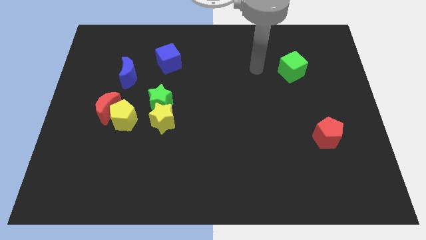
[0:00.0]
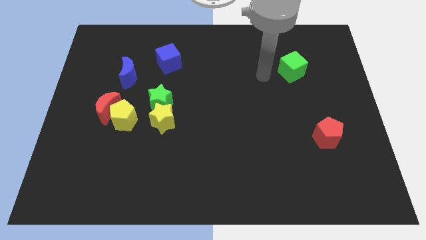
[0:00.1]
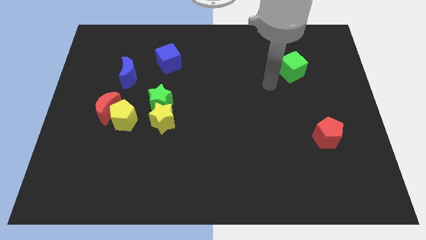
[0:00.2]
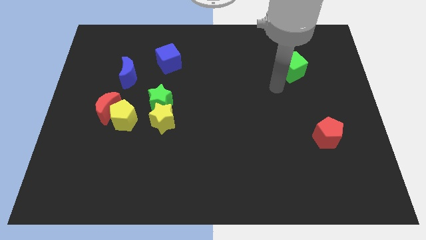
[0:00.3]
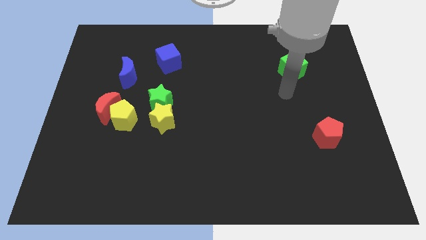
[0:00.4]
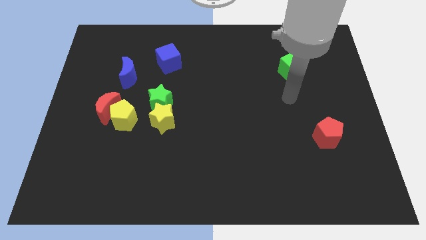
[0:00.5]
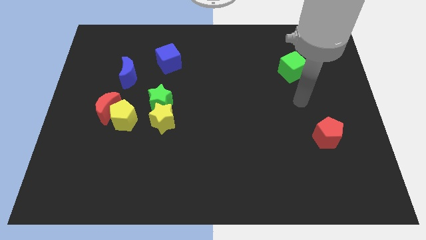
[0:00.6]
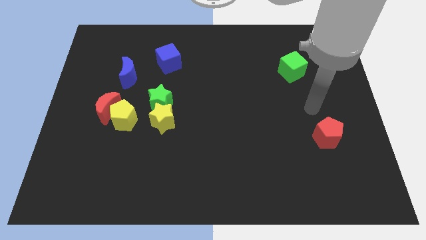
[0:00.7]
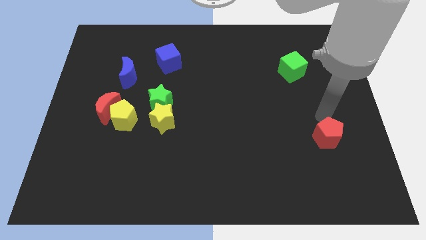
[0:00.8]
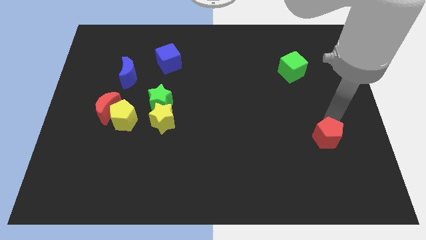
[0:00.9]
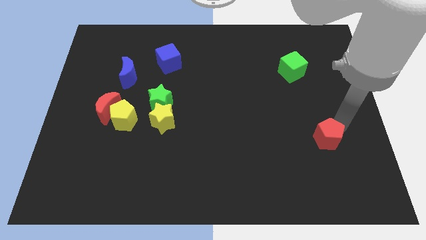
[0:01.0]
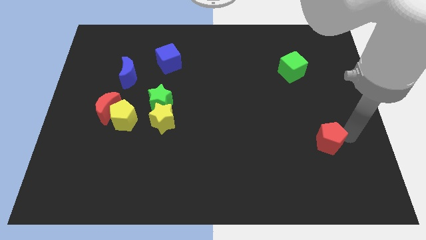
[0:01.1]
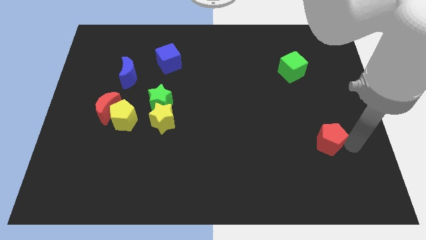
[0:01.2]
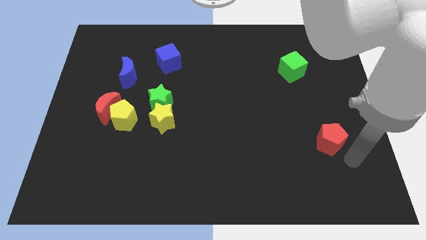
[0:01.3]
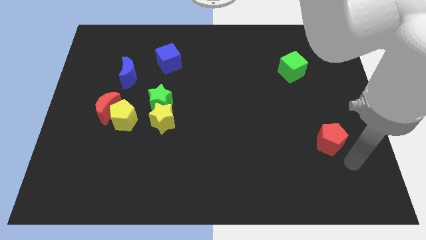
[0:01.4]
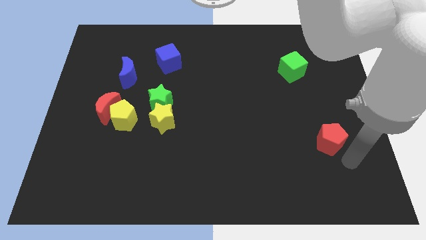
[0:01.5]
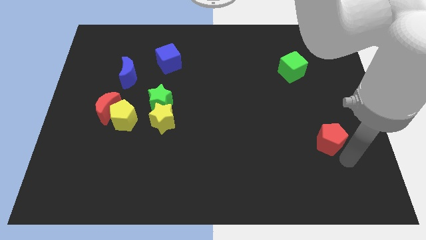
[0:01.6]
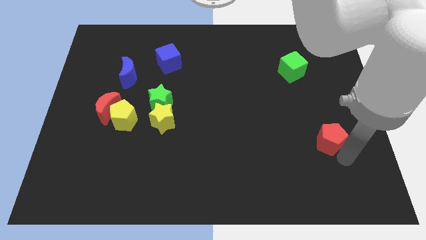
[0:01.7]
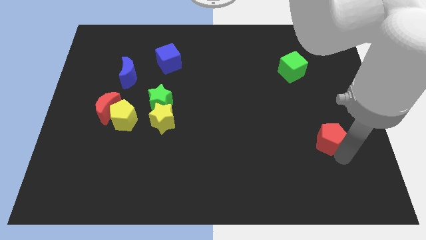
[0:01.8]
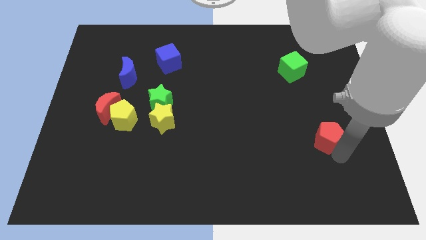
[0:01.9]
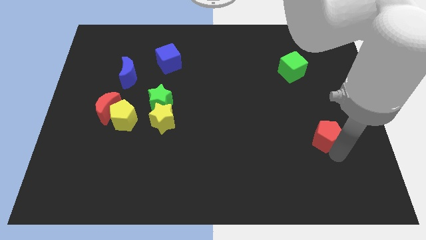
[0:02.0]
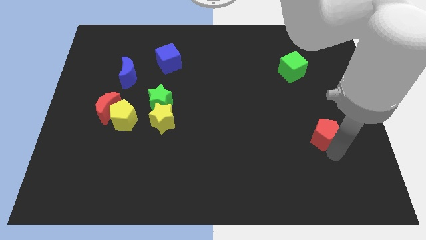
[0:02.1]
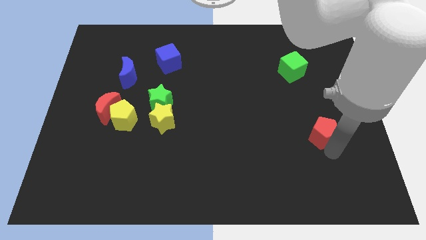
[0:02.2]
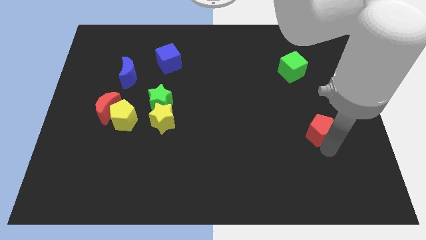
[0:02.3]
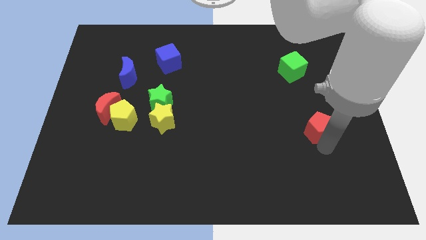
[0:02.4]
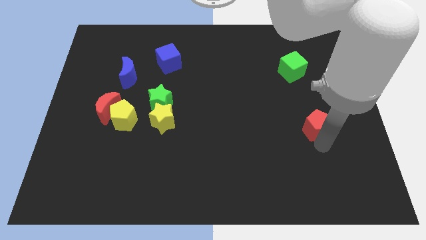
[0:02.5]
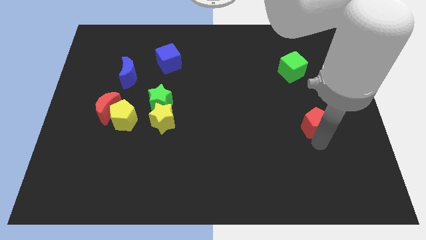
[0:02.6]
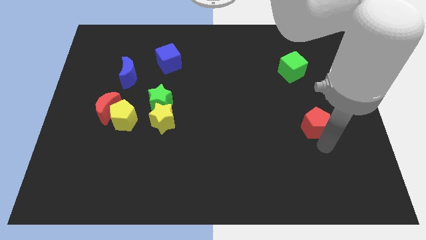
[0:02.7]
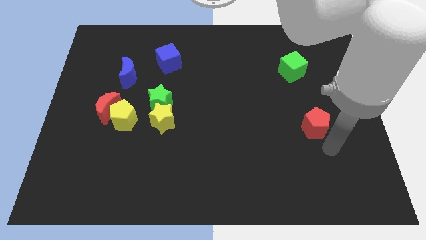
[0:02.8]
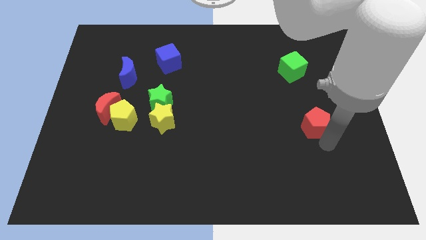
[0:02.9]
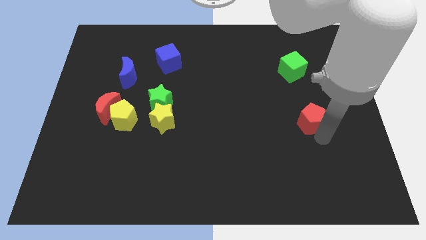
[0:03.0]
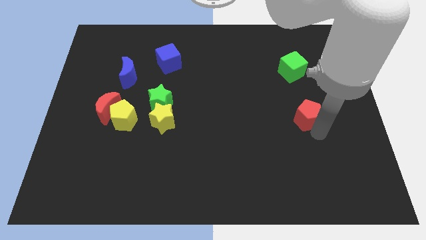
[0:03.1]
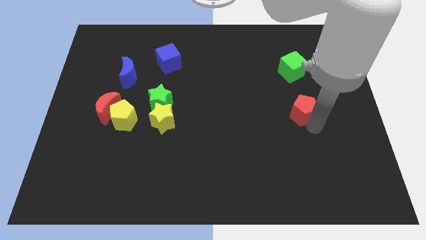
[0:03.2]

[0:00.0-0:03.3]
push the red pentagon a bit upwards and left diagonally

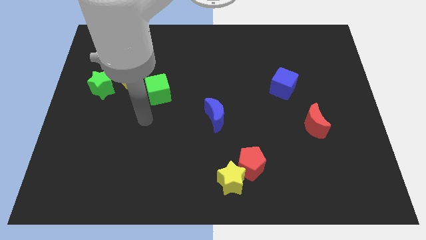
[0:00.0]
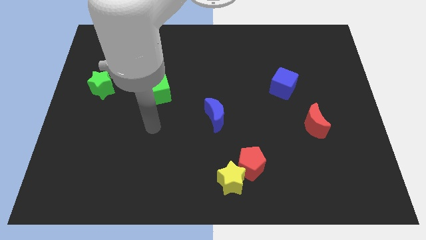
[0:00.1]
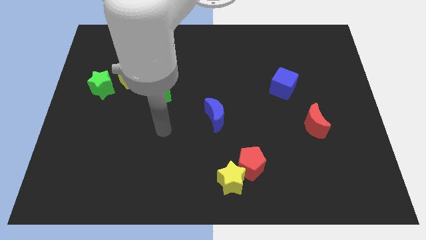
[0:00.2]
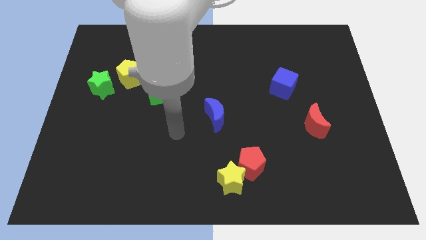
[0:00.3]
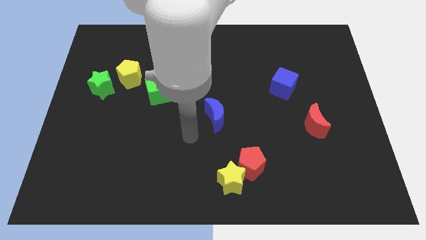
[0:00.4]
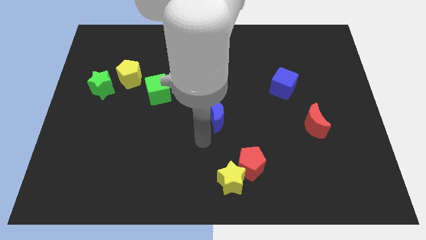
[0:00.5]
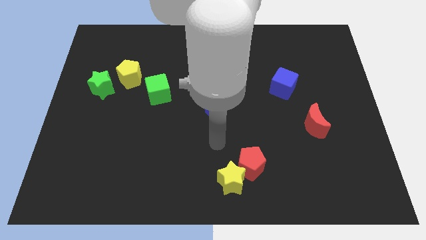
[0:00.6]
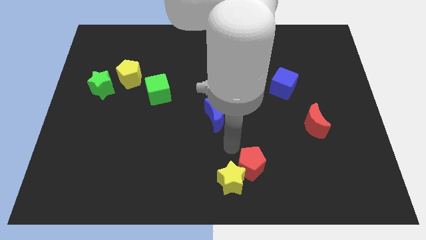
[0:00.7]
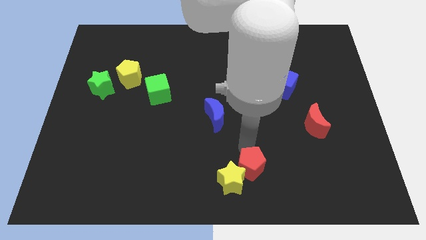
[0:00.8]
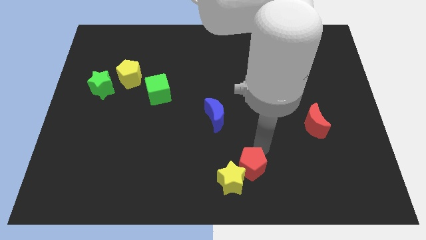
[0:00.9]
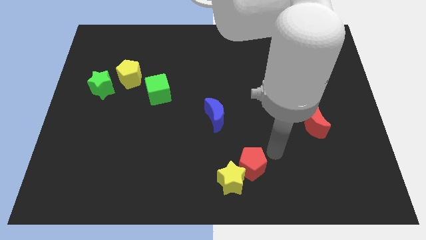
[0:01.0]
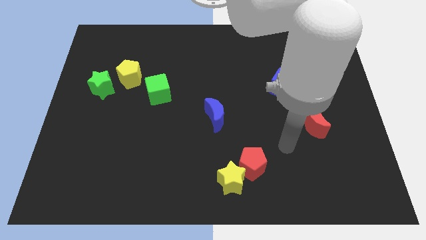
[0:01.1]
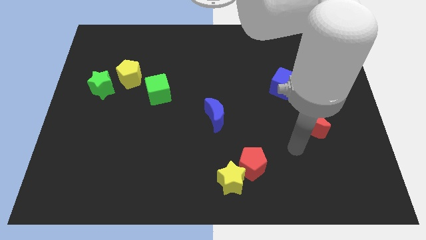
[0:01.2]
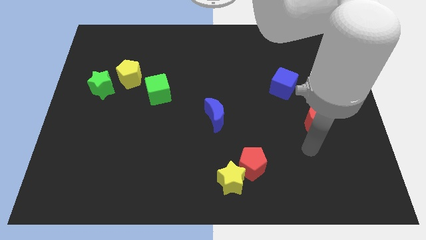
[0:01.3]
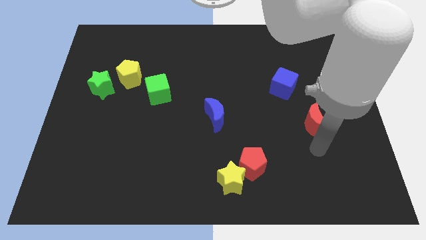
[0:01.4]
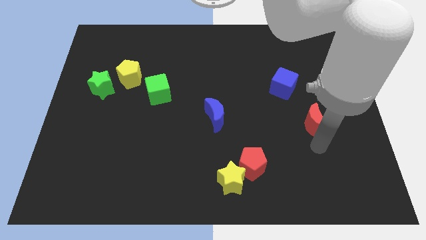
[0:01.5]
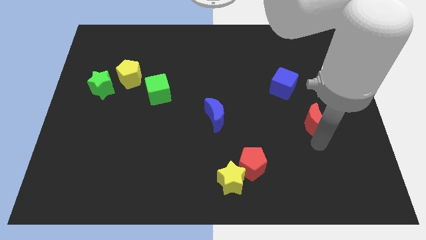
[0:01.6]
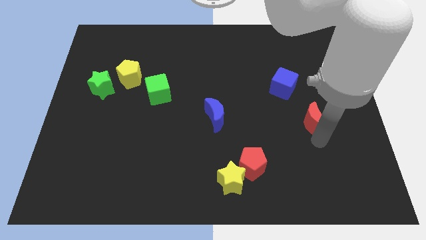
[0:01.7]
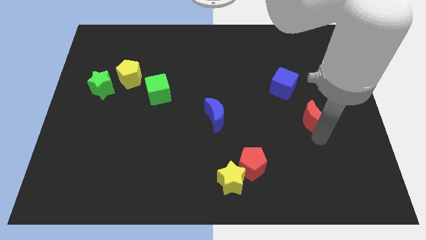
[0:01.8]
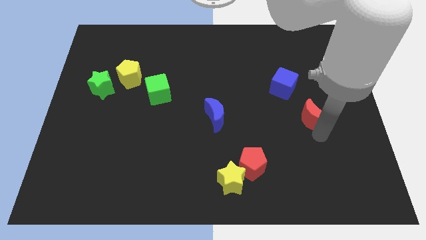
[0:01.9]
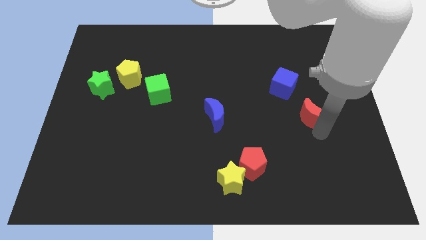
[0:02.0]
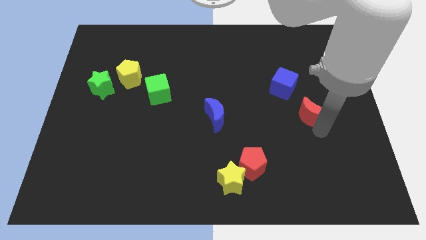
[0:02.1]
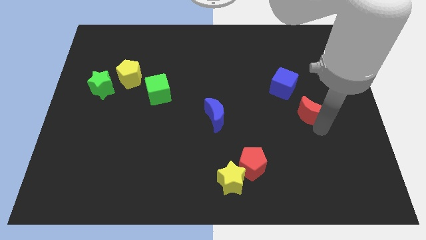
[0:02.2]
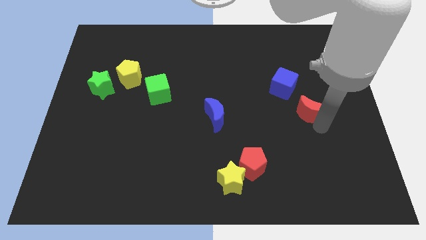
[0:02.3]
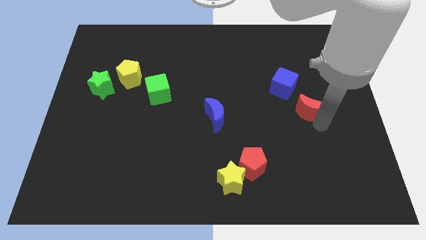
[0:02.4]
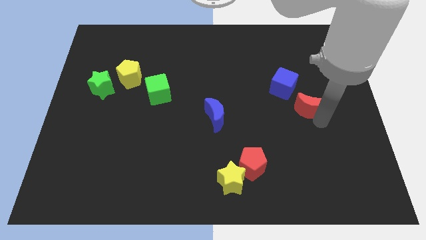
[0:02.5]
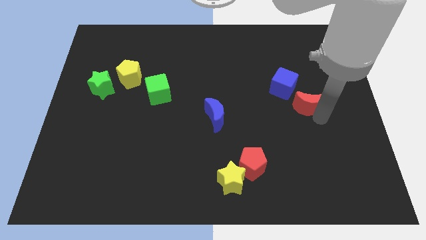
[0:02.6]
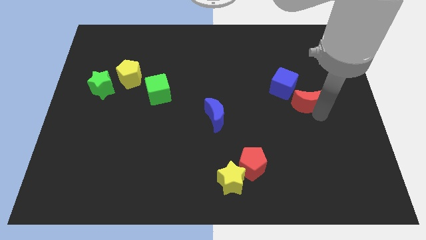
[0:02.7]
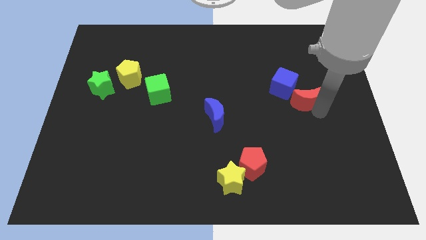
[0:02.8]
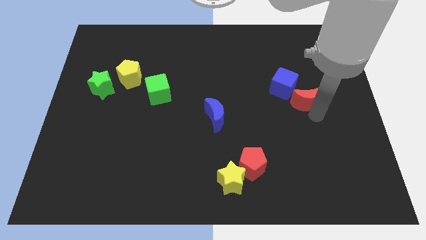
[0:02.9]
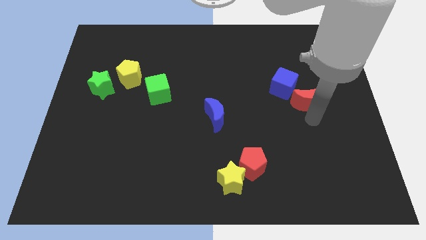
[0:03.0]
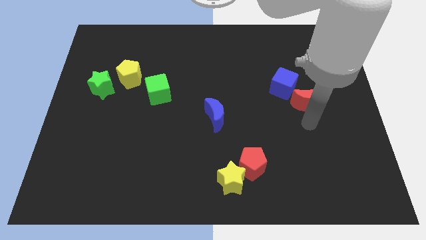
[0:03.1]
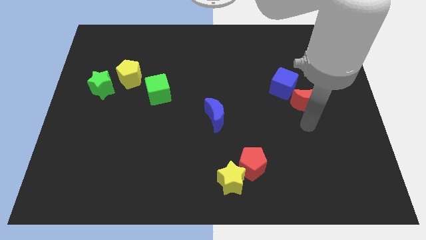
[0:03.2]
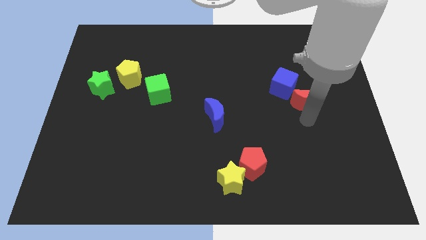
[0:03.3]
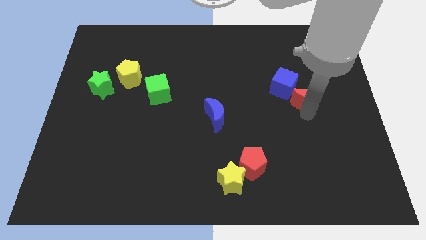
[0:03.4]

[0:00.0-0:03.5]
slide the red moon slightly upwards

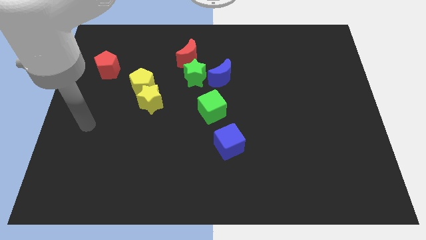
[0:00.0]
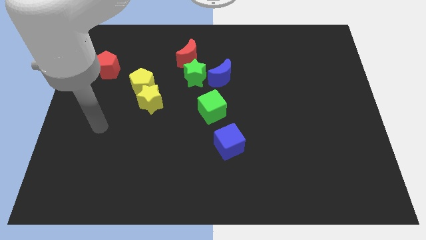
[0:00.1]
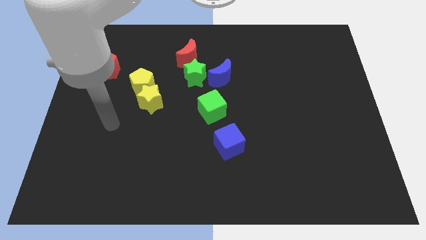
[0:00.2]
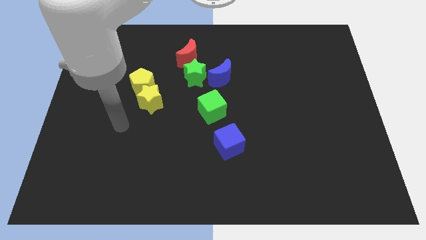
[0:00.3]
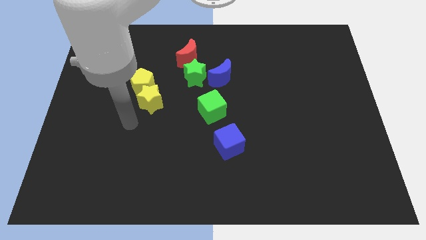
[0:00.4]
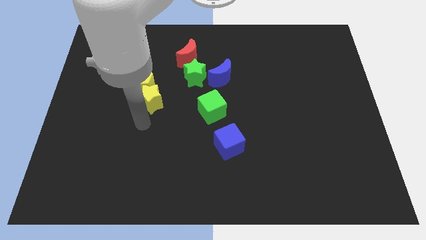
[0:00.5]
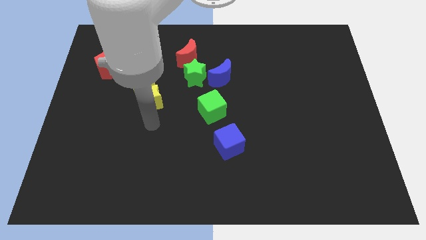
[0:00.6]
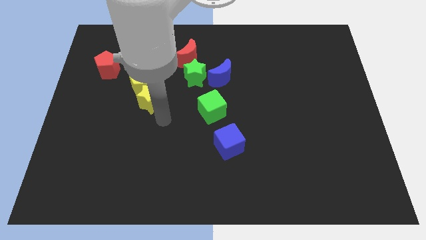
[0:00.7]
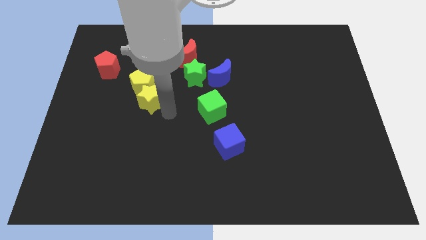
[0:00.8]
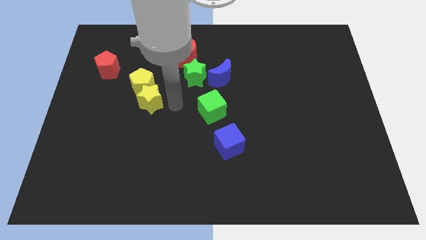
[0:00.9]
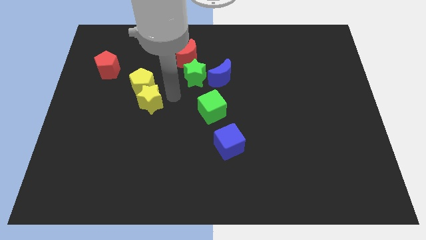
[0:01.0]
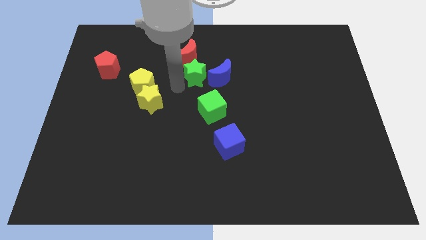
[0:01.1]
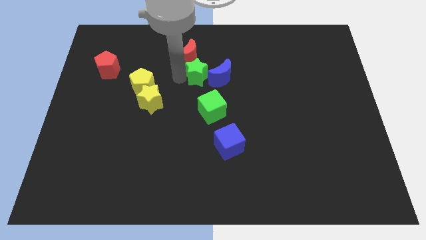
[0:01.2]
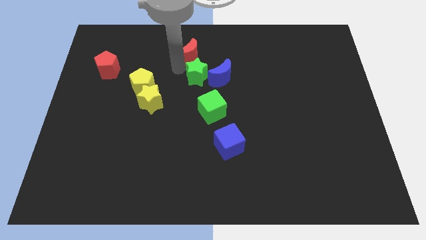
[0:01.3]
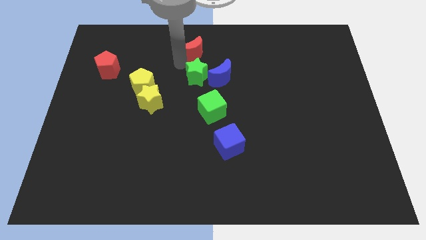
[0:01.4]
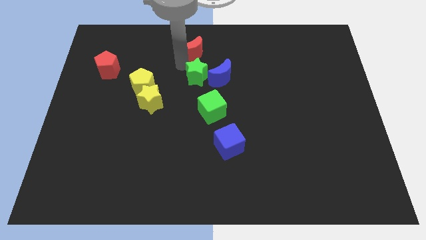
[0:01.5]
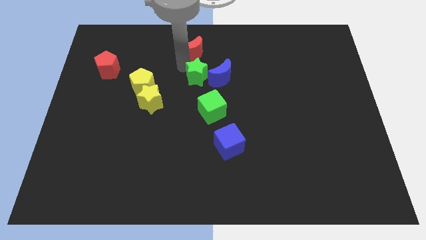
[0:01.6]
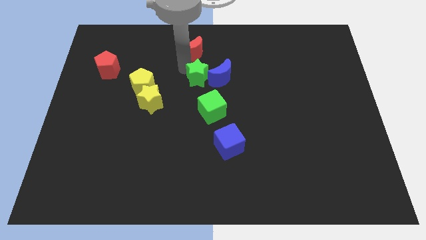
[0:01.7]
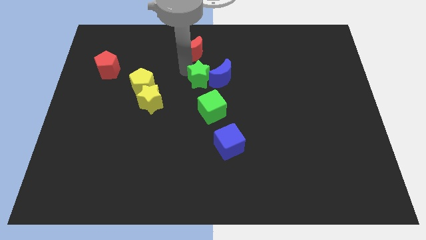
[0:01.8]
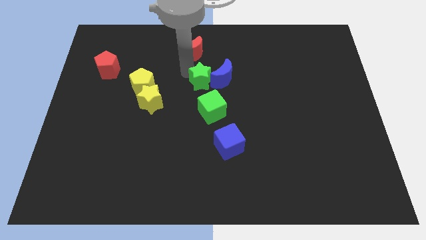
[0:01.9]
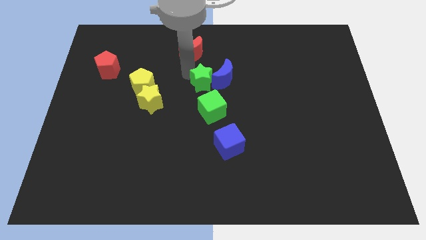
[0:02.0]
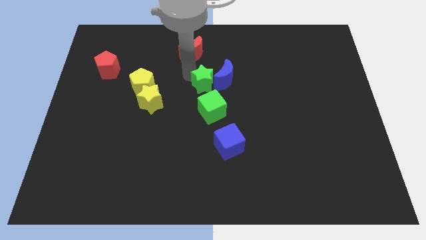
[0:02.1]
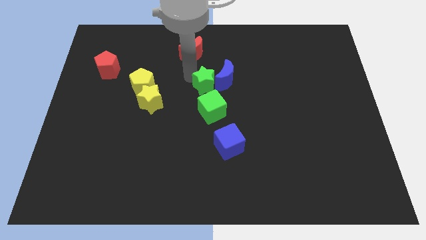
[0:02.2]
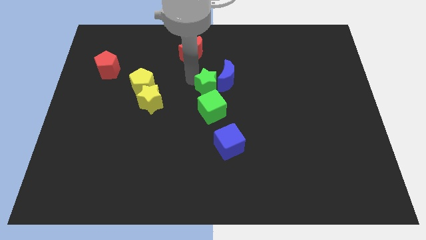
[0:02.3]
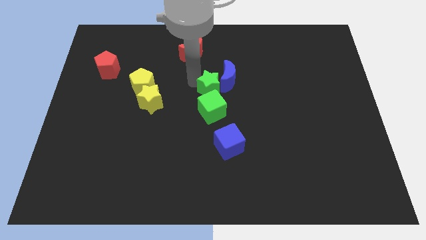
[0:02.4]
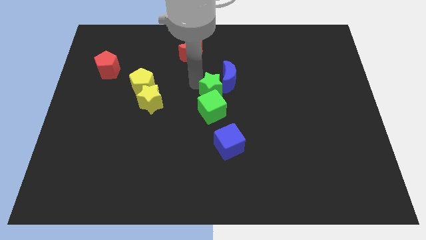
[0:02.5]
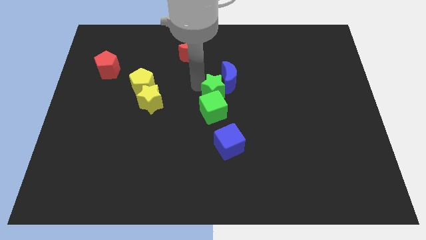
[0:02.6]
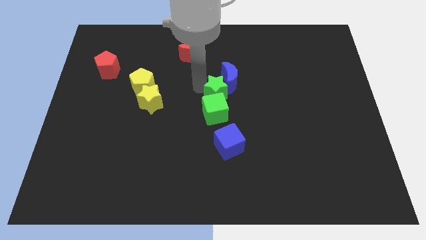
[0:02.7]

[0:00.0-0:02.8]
slightly push the green star downwards and then right
